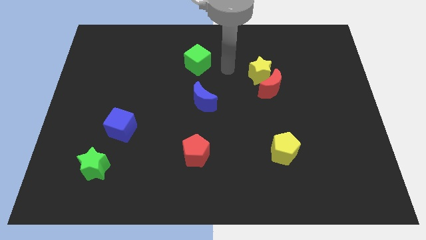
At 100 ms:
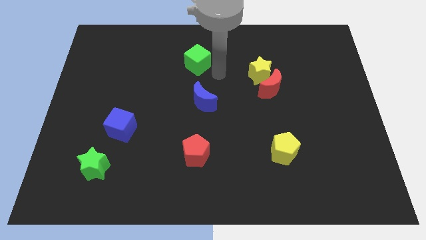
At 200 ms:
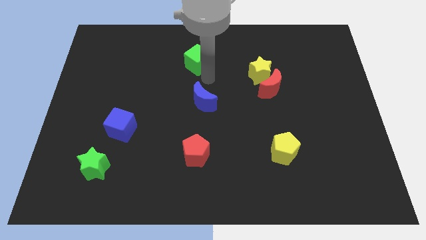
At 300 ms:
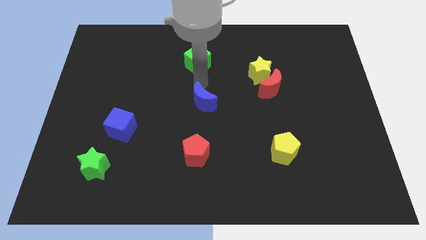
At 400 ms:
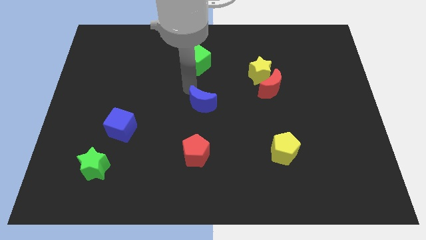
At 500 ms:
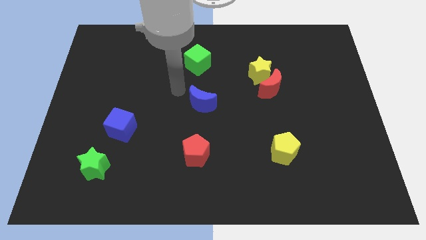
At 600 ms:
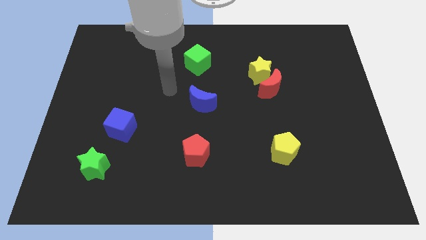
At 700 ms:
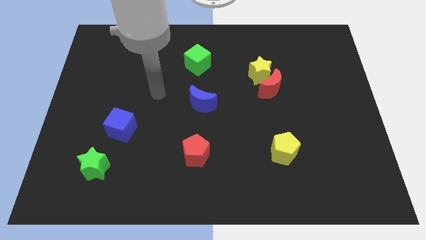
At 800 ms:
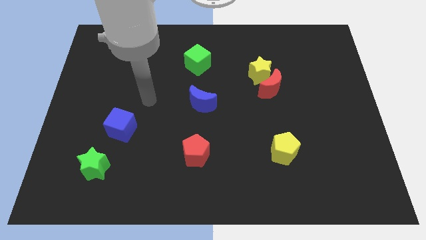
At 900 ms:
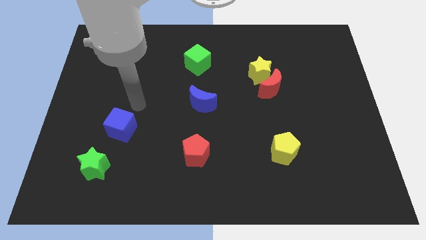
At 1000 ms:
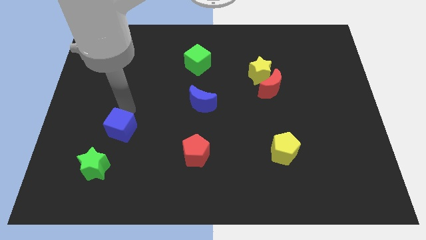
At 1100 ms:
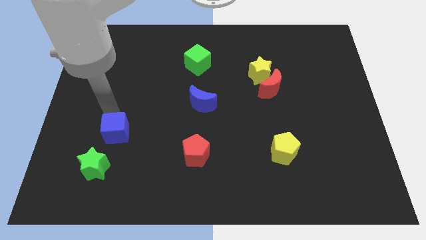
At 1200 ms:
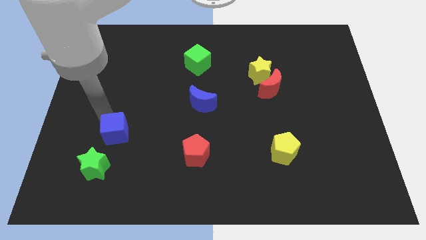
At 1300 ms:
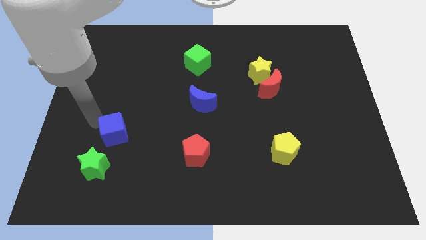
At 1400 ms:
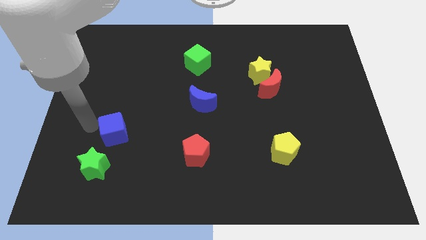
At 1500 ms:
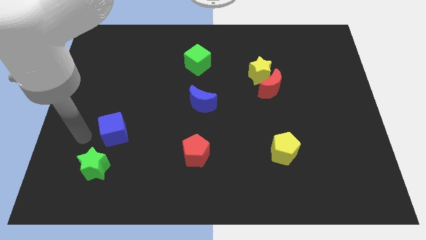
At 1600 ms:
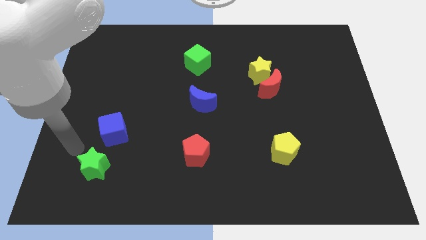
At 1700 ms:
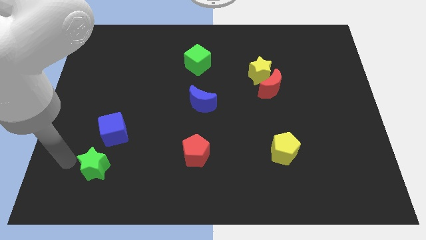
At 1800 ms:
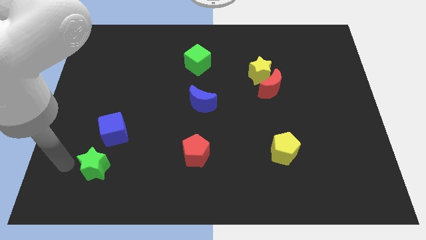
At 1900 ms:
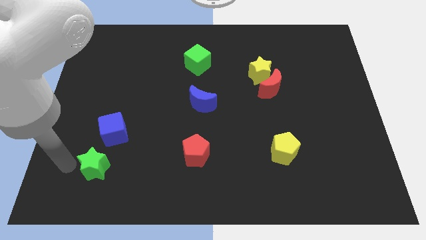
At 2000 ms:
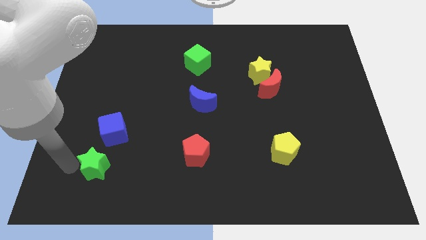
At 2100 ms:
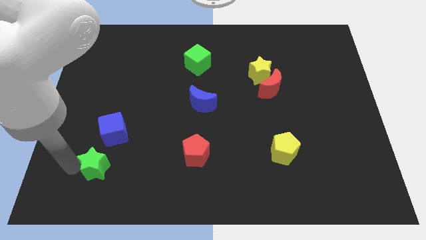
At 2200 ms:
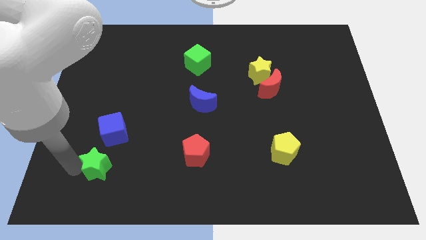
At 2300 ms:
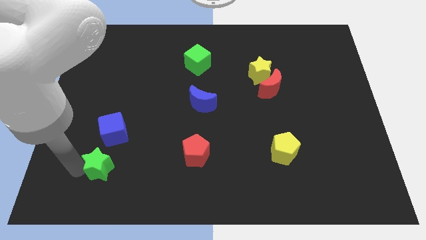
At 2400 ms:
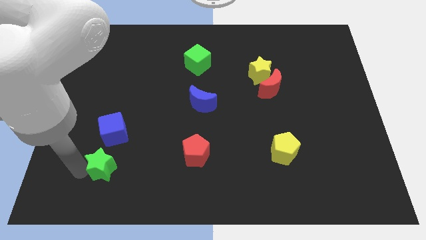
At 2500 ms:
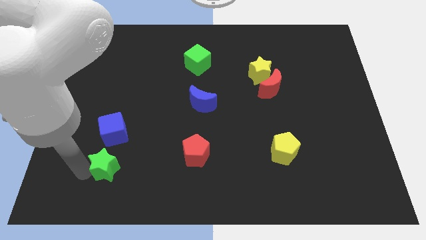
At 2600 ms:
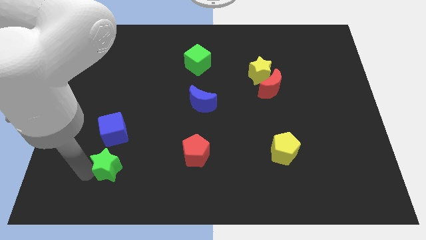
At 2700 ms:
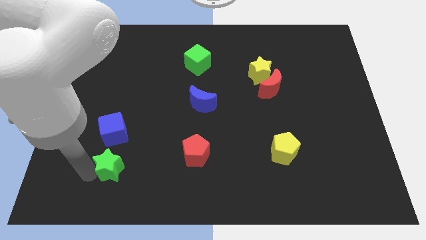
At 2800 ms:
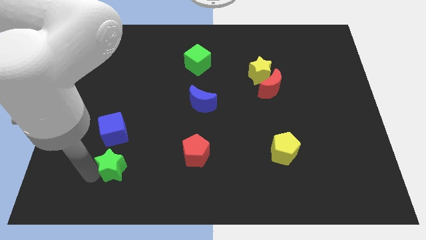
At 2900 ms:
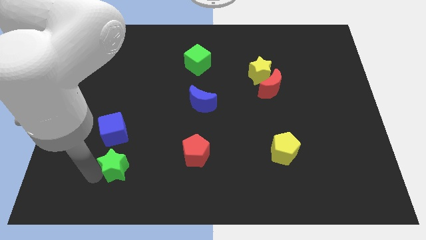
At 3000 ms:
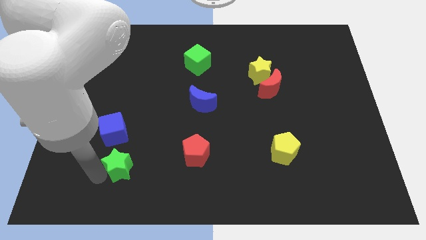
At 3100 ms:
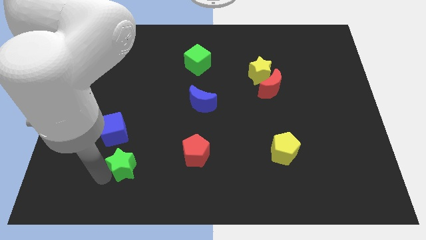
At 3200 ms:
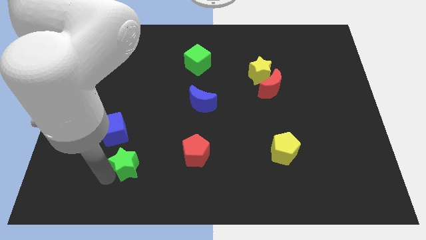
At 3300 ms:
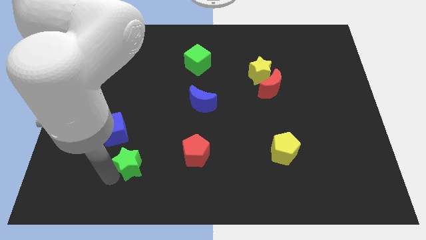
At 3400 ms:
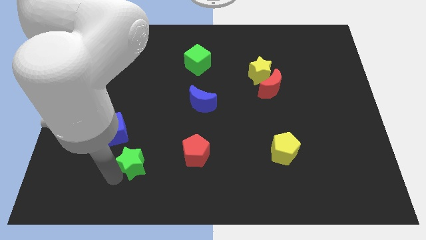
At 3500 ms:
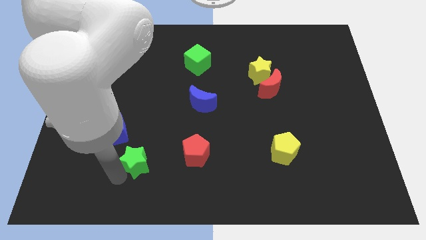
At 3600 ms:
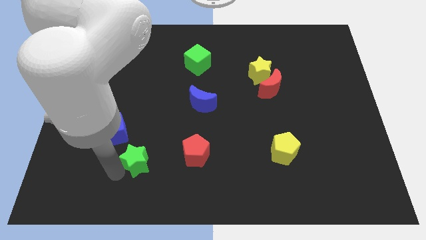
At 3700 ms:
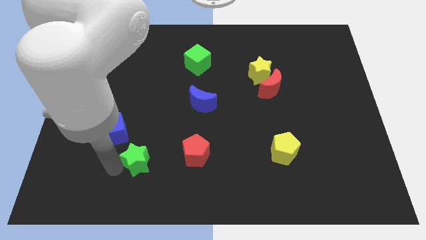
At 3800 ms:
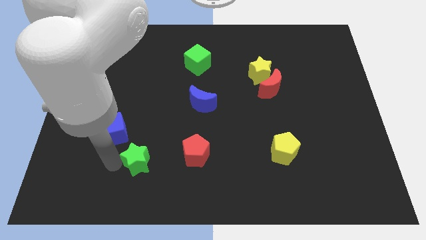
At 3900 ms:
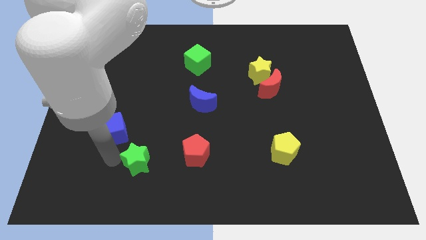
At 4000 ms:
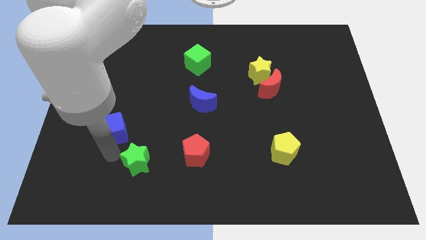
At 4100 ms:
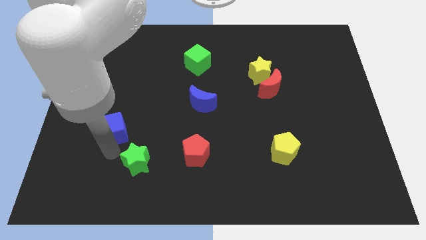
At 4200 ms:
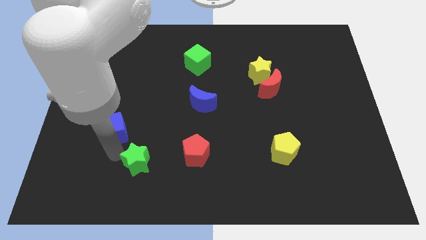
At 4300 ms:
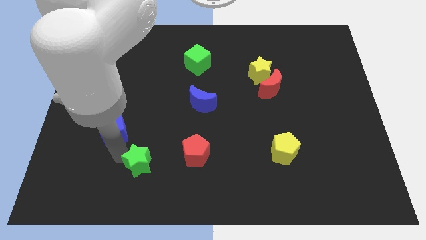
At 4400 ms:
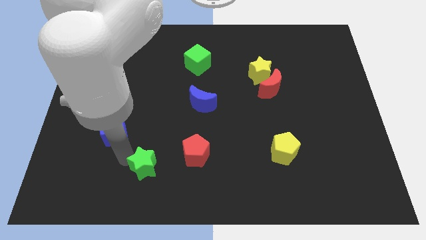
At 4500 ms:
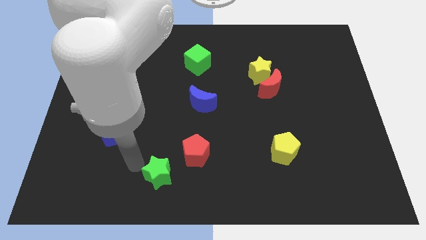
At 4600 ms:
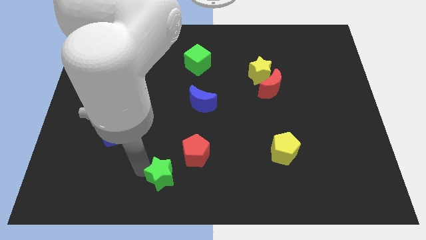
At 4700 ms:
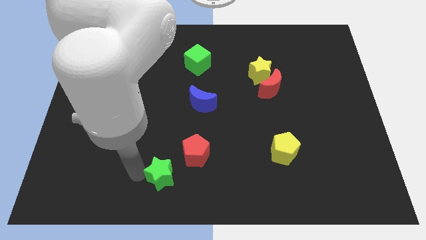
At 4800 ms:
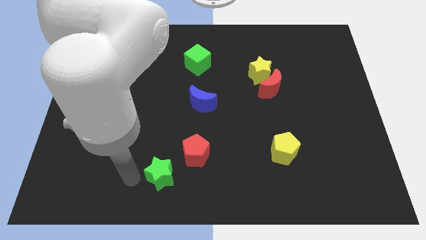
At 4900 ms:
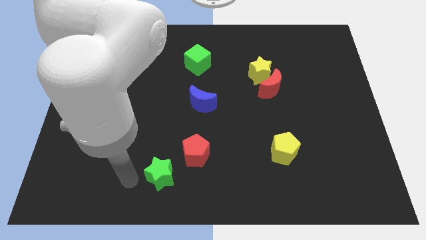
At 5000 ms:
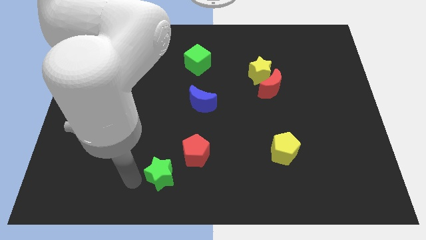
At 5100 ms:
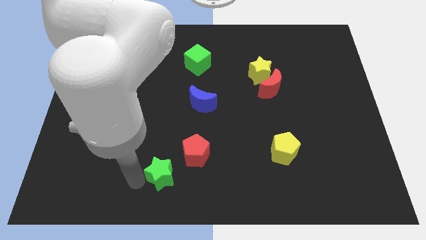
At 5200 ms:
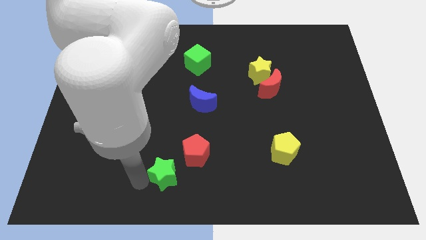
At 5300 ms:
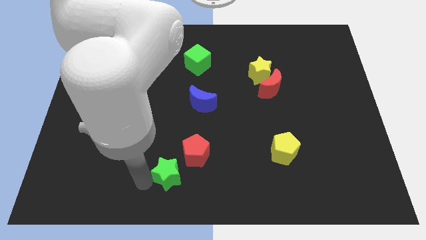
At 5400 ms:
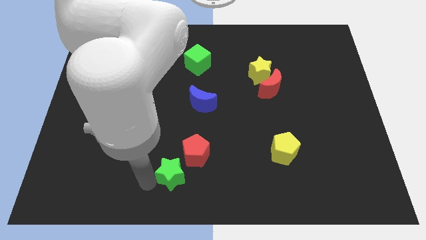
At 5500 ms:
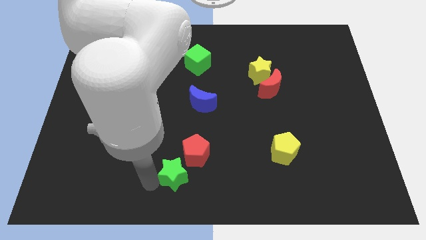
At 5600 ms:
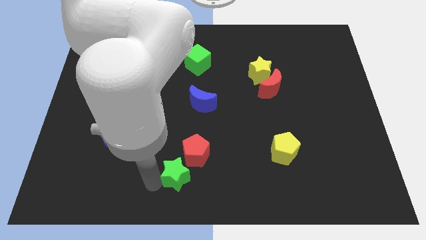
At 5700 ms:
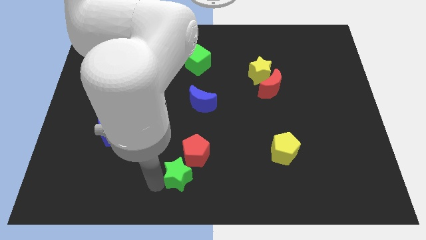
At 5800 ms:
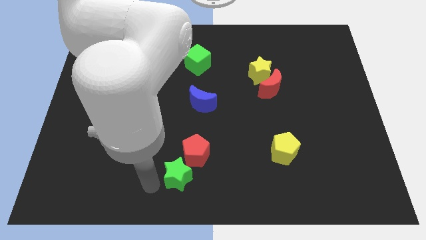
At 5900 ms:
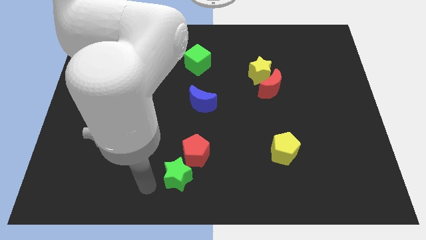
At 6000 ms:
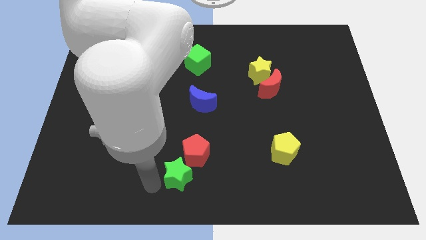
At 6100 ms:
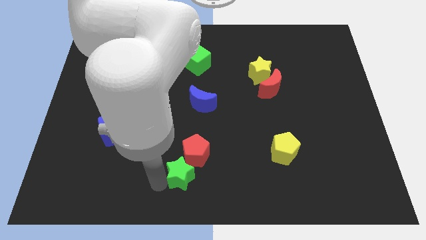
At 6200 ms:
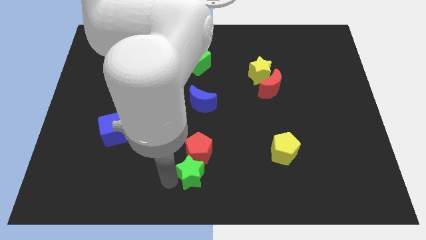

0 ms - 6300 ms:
move the green star right

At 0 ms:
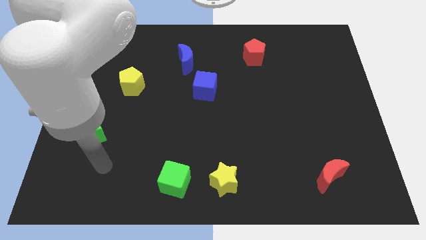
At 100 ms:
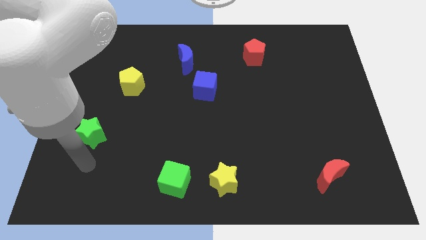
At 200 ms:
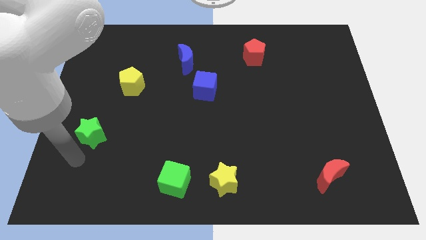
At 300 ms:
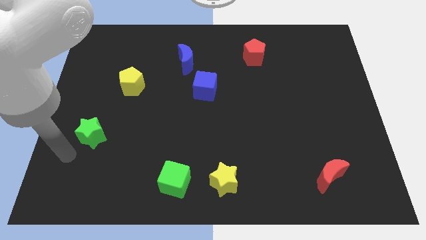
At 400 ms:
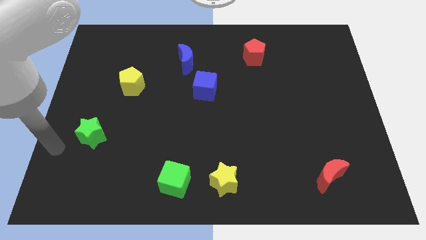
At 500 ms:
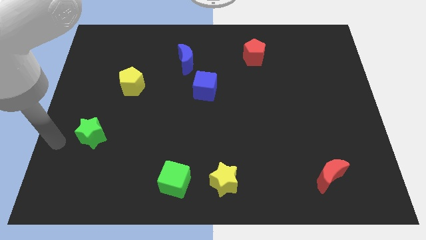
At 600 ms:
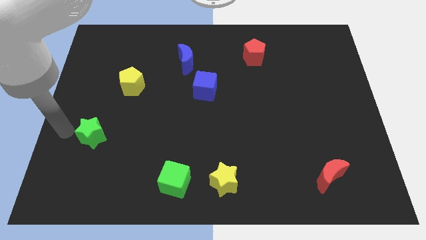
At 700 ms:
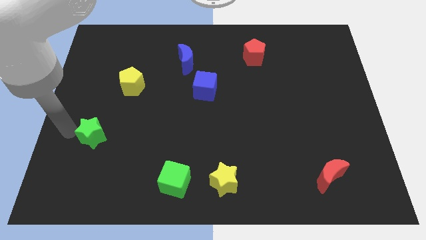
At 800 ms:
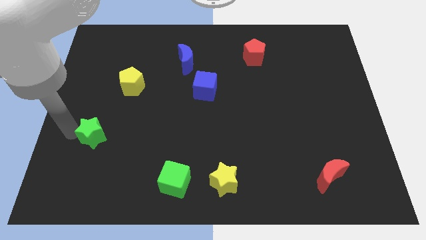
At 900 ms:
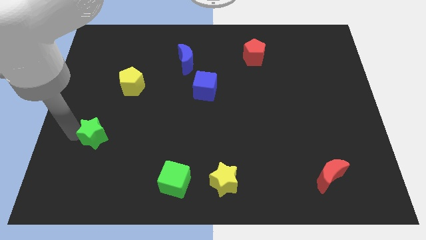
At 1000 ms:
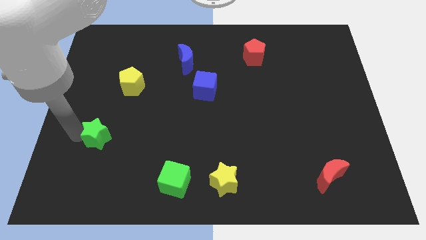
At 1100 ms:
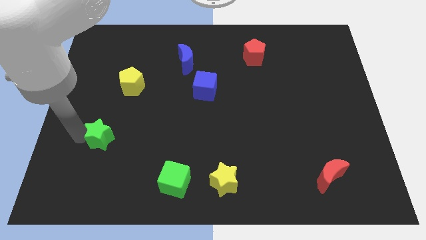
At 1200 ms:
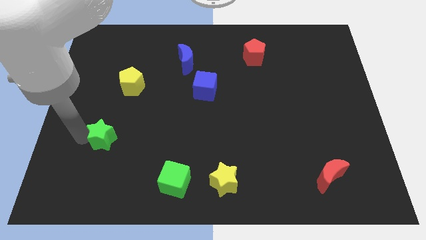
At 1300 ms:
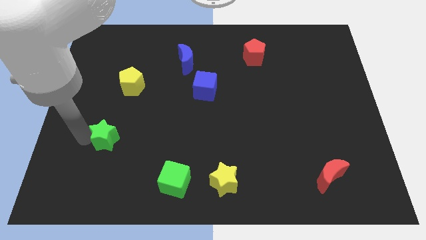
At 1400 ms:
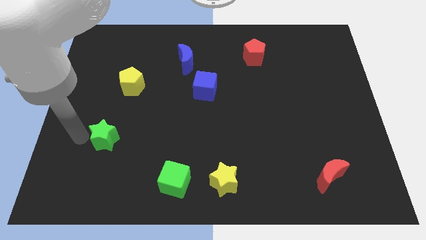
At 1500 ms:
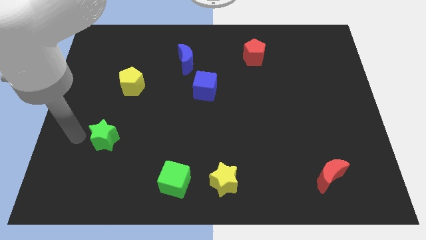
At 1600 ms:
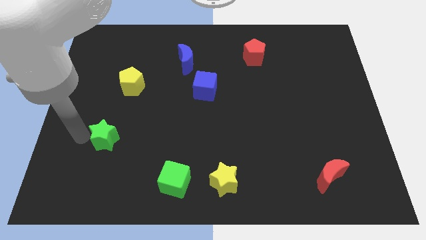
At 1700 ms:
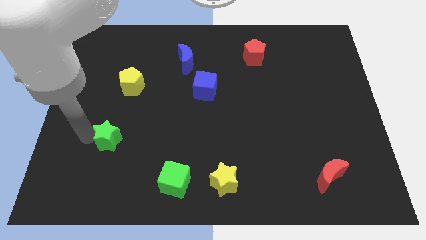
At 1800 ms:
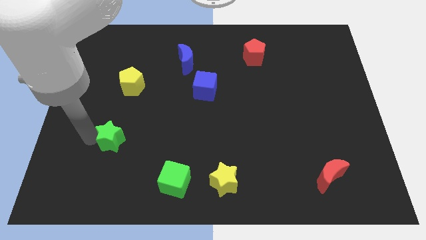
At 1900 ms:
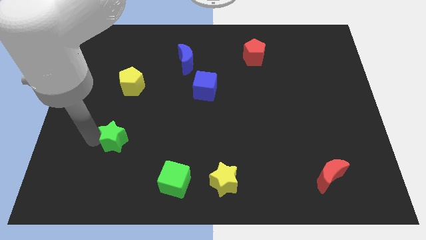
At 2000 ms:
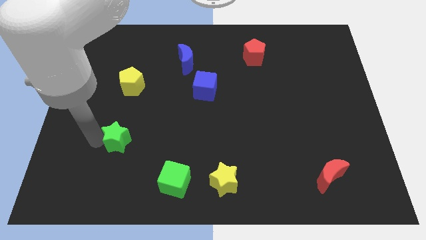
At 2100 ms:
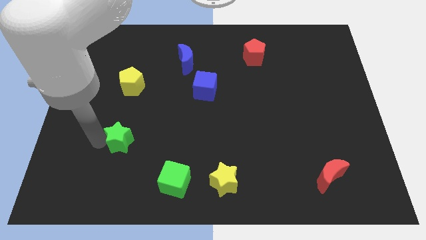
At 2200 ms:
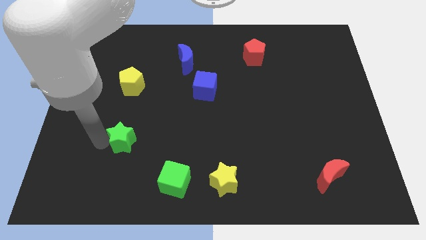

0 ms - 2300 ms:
move the green star right a little
